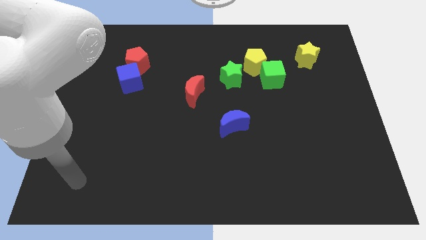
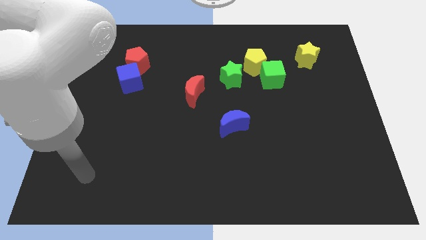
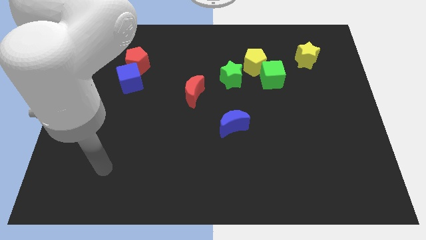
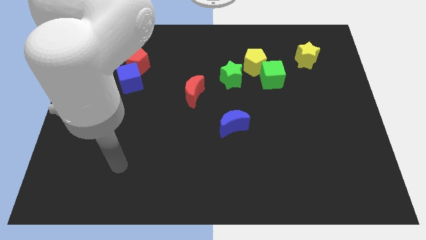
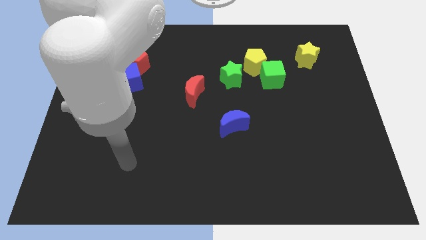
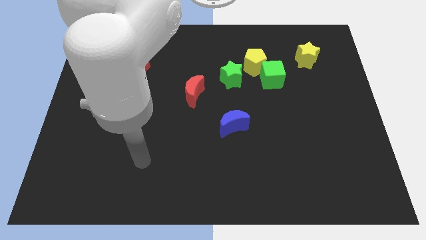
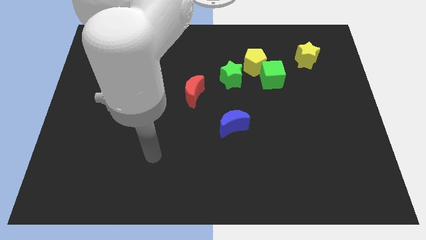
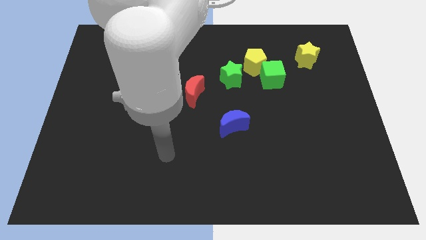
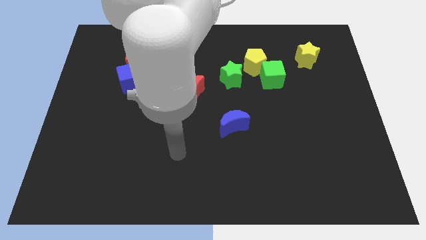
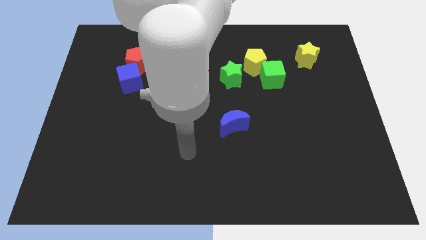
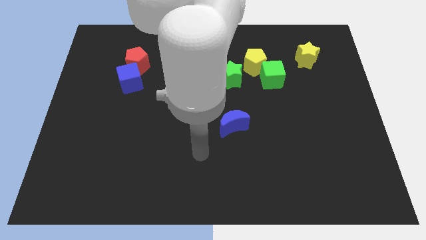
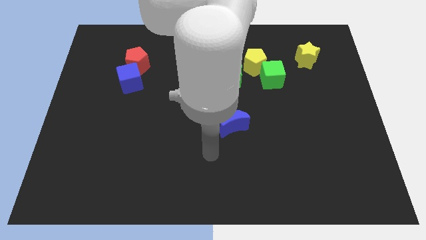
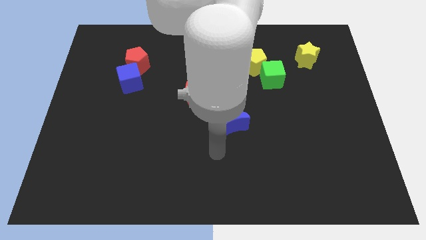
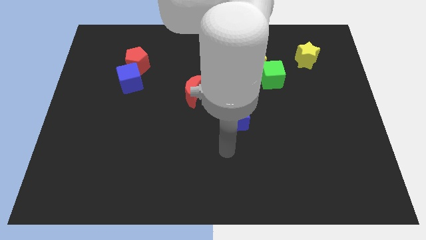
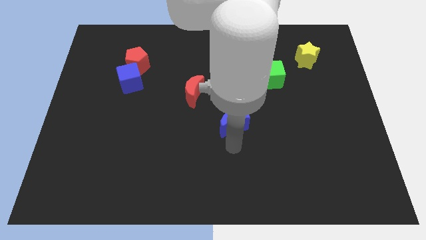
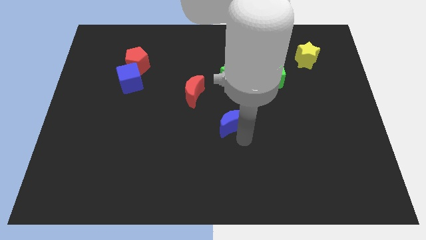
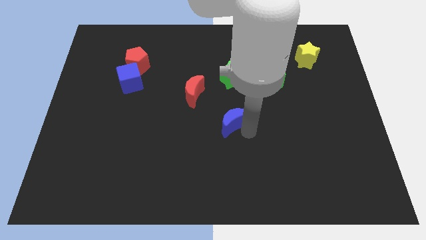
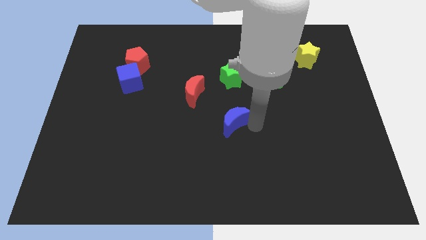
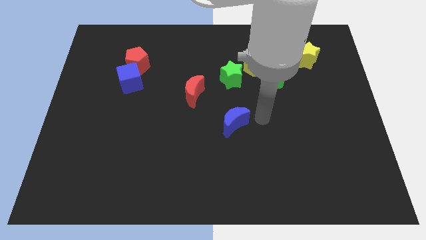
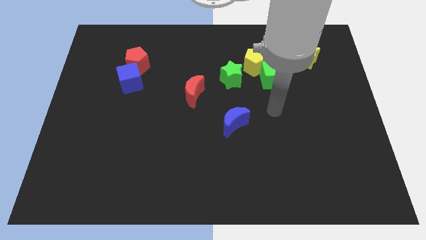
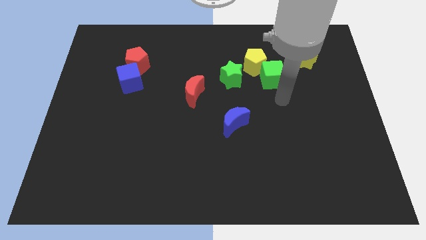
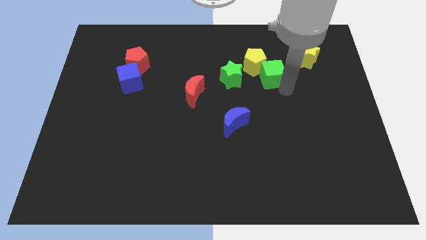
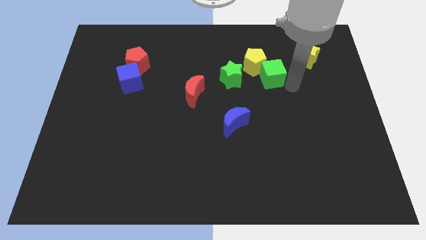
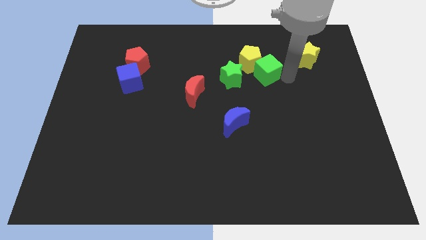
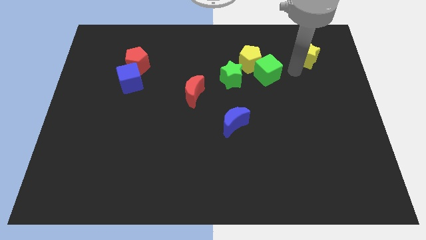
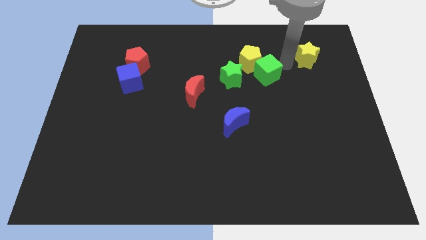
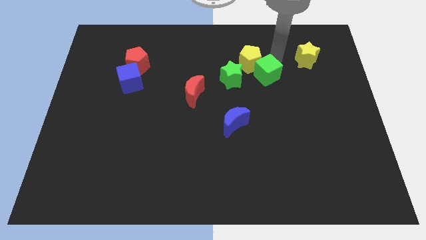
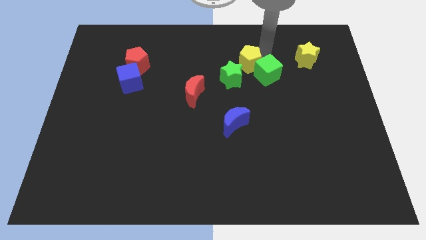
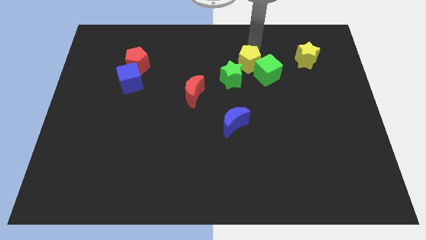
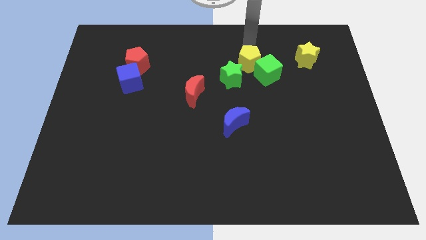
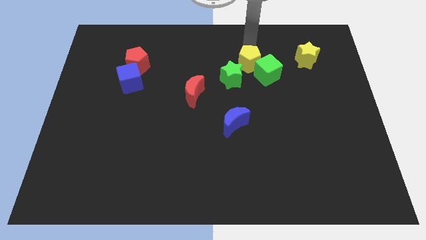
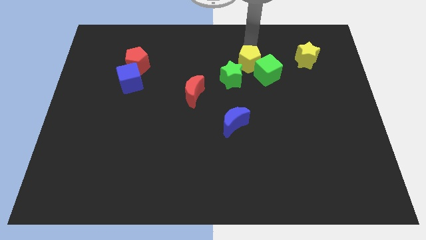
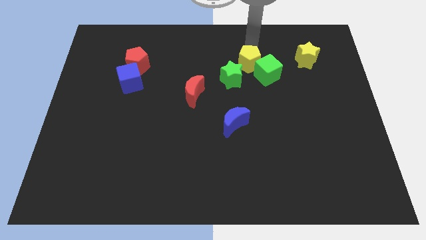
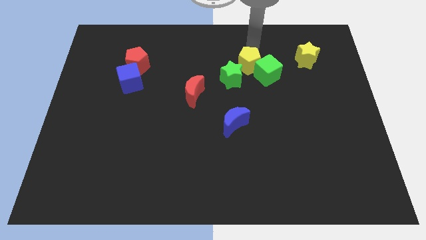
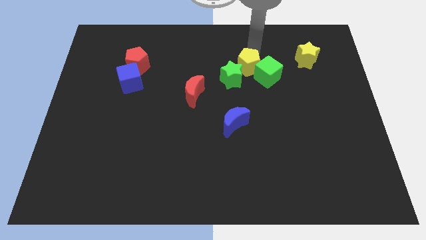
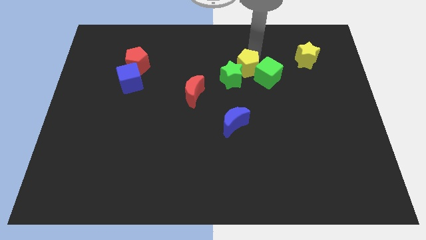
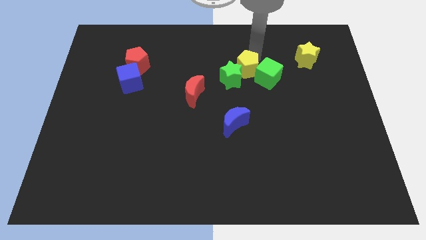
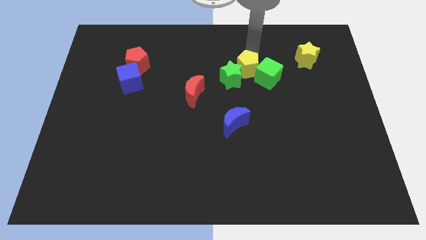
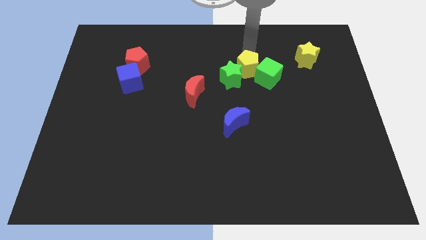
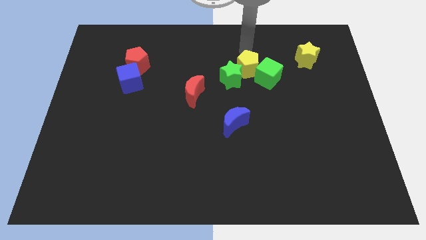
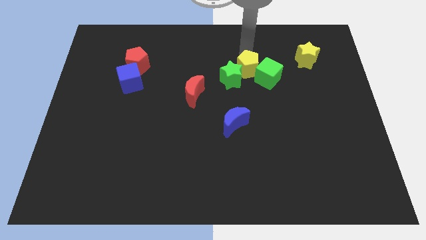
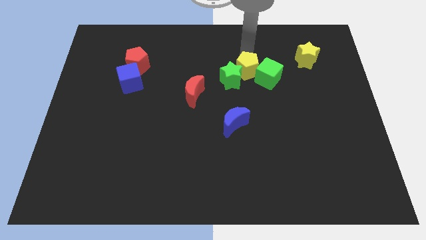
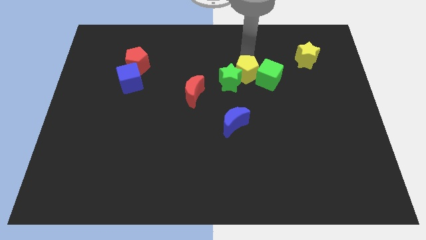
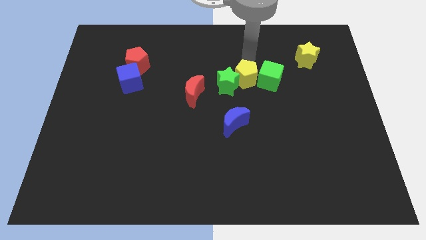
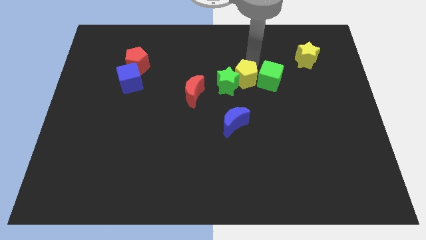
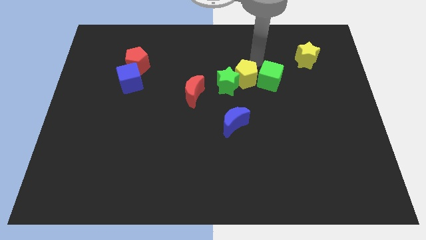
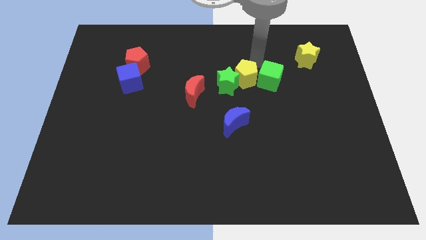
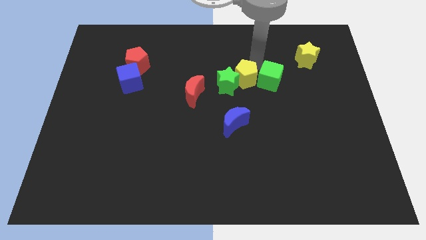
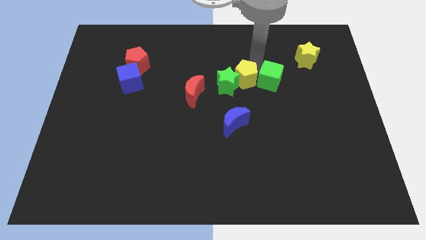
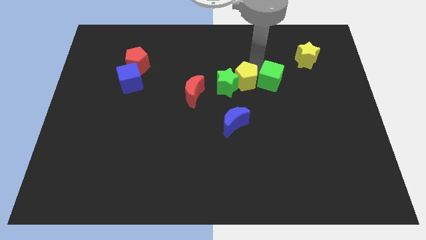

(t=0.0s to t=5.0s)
put the yellow pentagon just right of the red moon

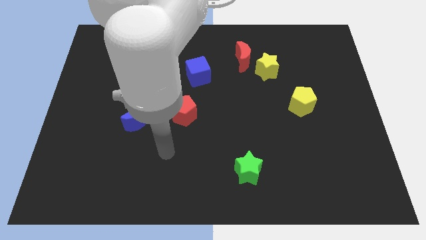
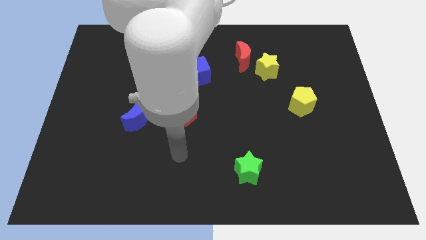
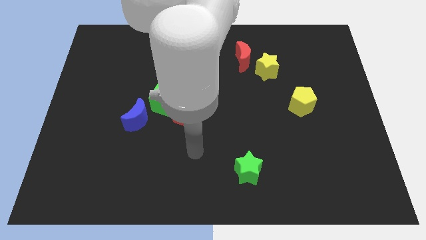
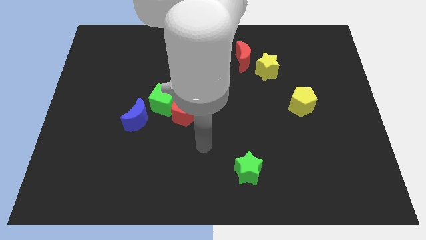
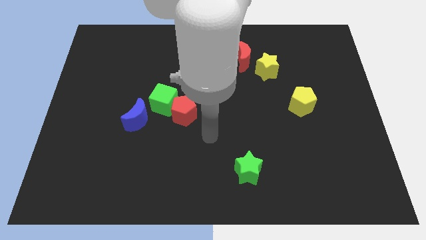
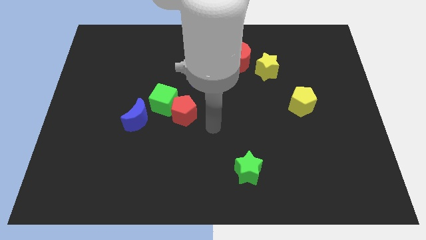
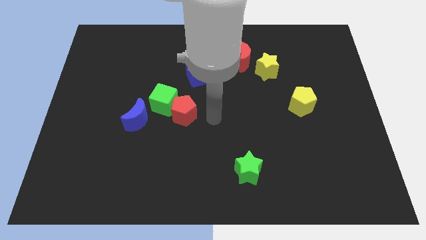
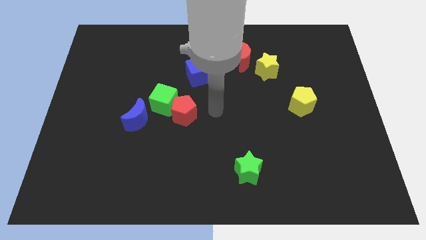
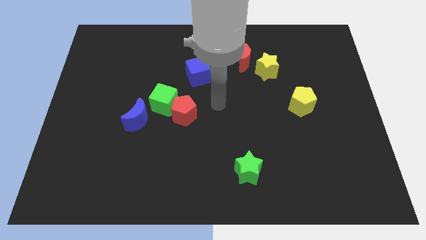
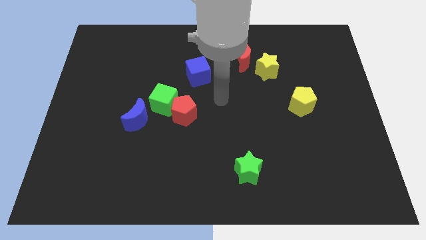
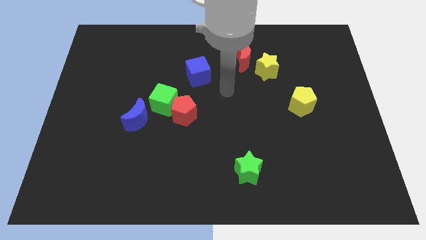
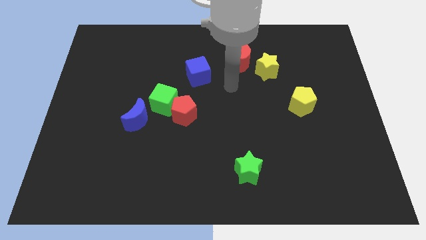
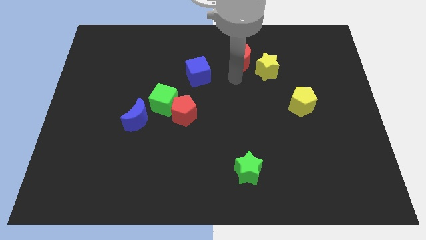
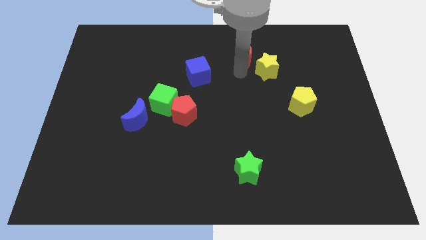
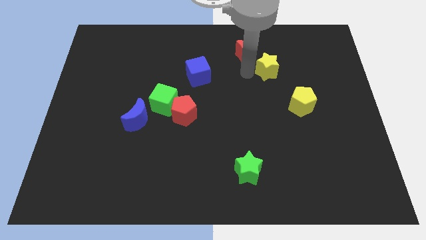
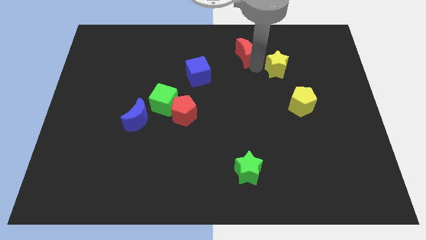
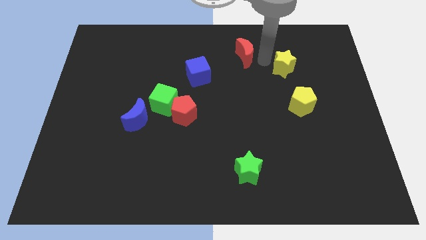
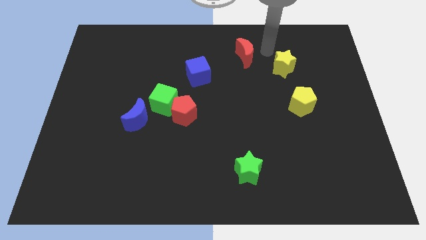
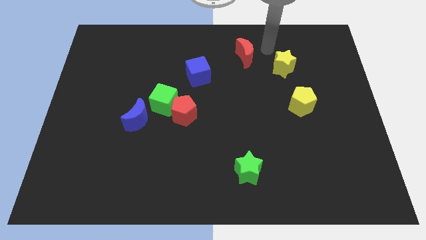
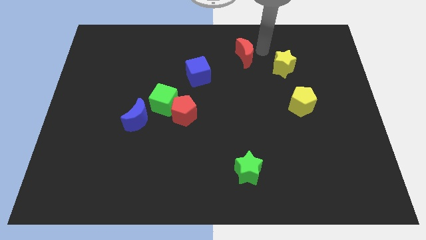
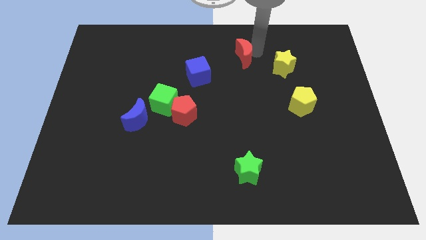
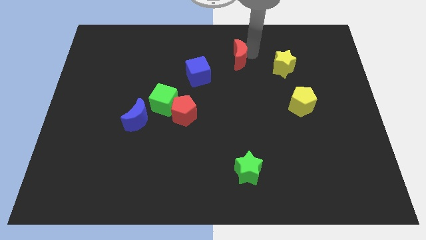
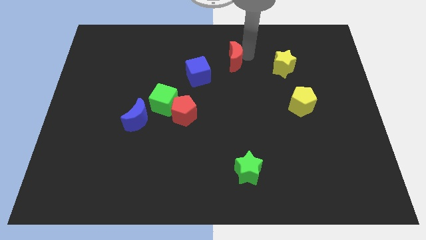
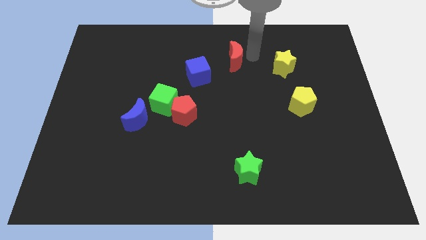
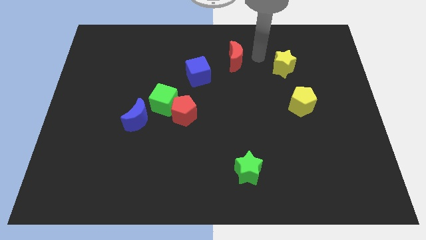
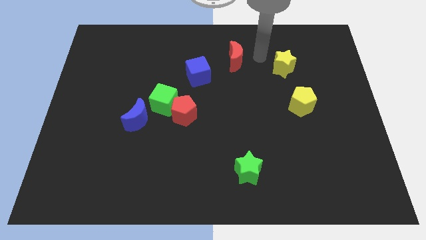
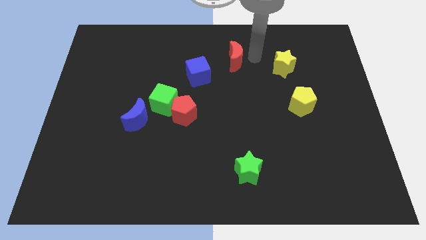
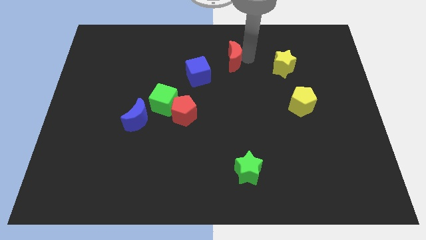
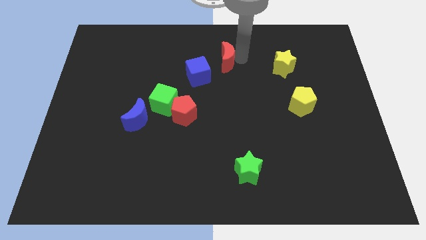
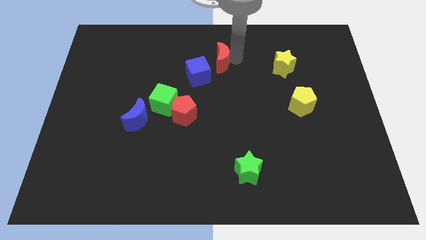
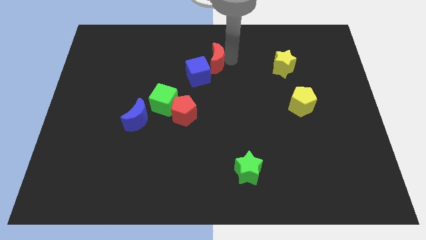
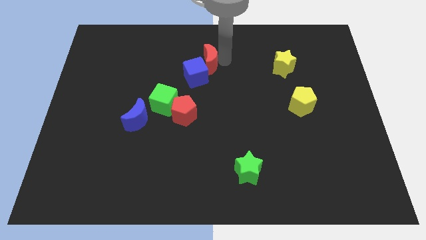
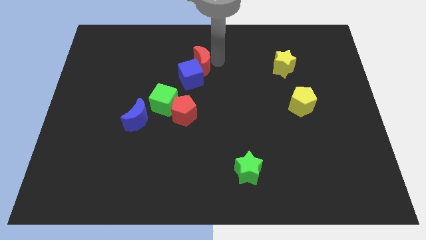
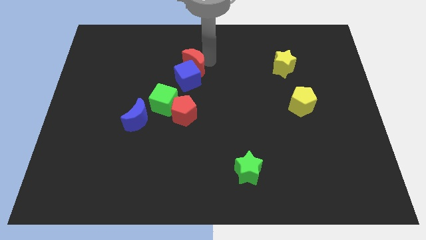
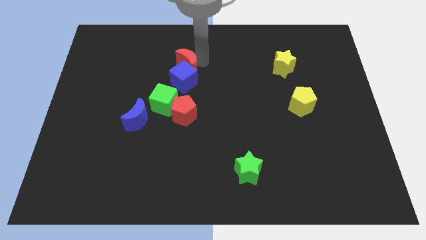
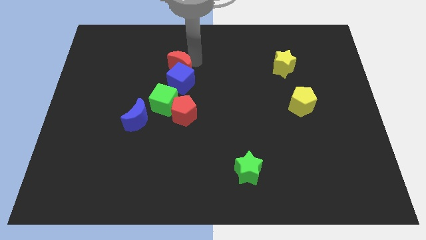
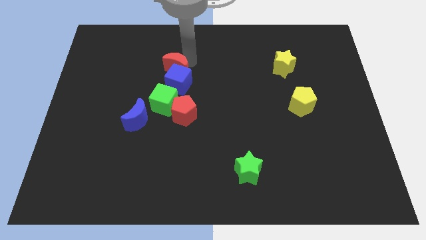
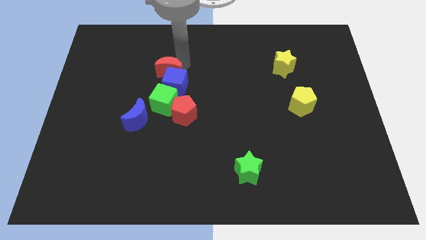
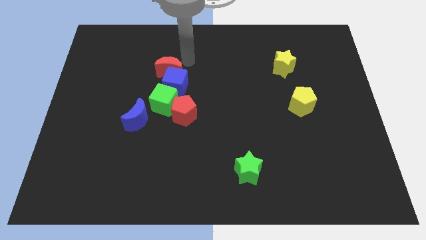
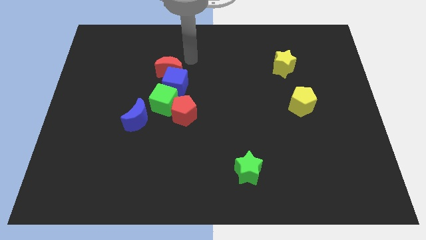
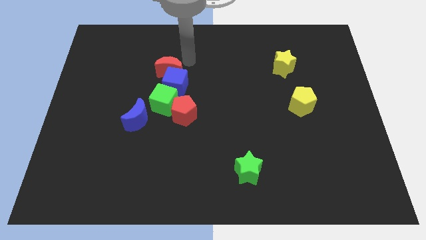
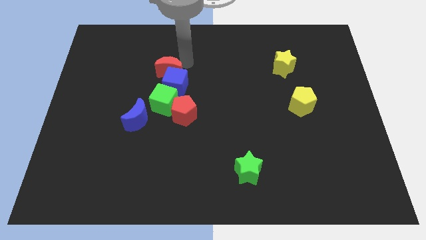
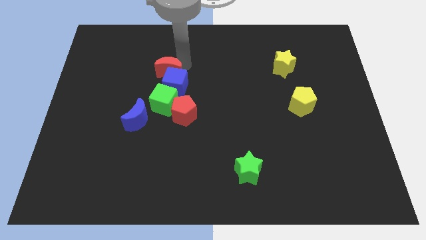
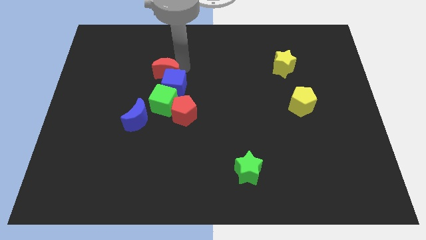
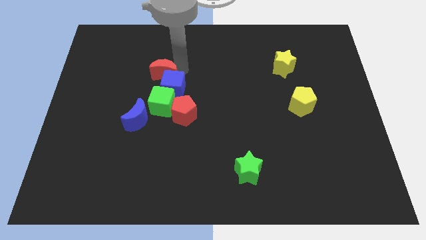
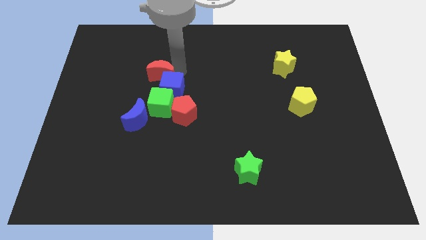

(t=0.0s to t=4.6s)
move the red moon above the blue moon
